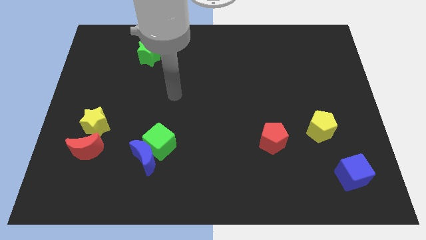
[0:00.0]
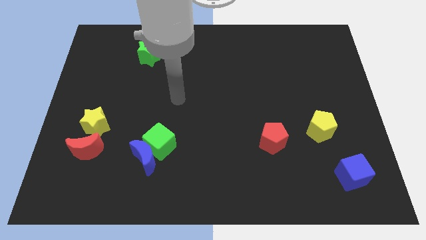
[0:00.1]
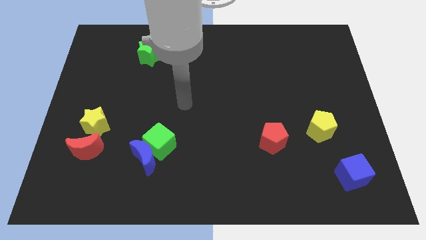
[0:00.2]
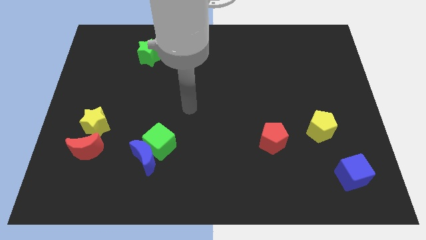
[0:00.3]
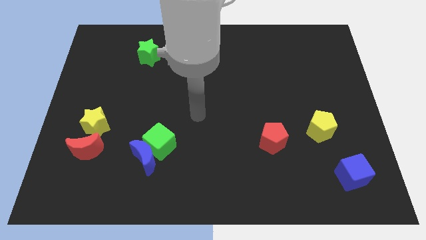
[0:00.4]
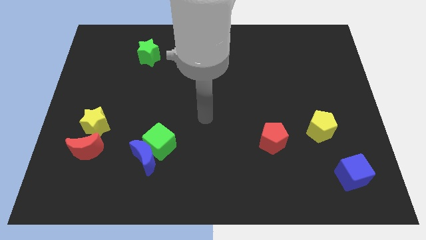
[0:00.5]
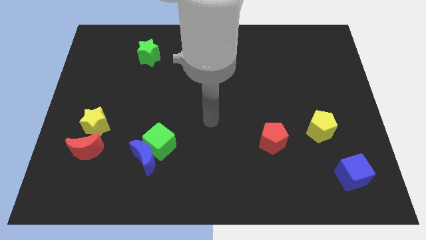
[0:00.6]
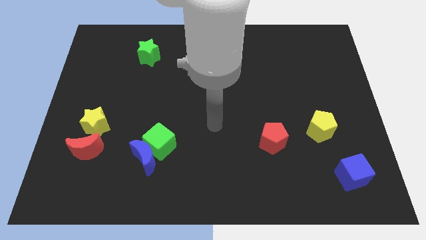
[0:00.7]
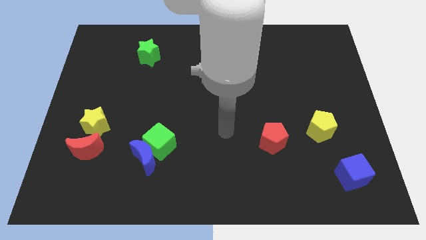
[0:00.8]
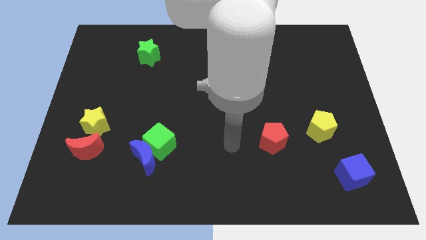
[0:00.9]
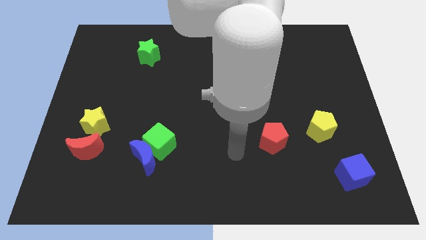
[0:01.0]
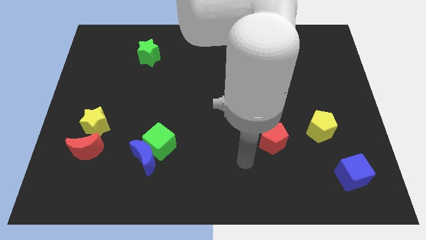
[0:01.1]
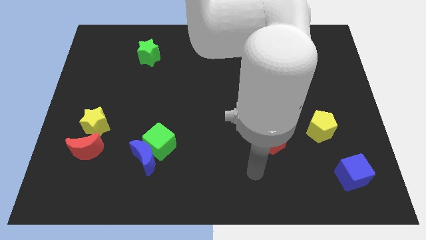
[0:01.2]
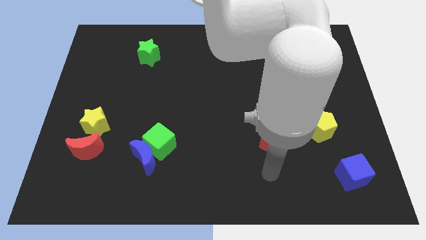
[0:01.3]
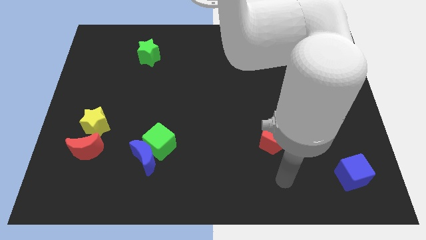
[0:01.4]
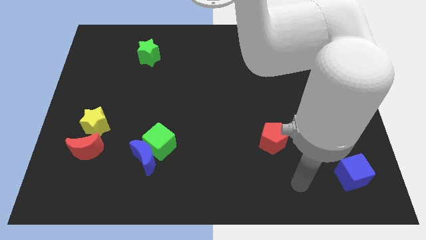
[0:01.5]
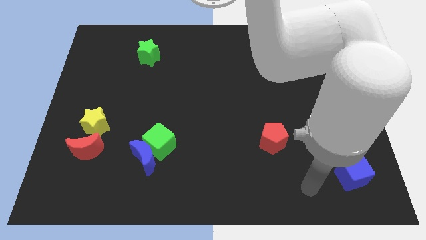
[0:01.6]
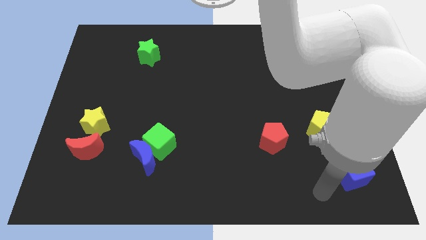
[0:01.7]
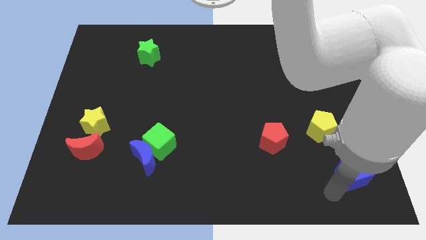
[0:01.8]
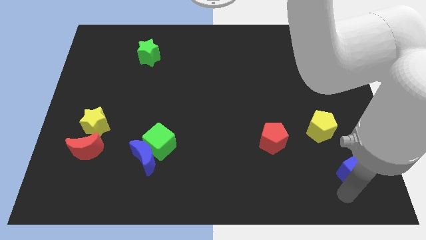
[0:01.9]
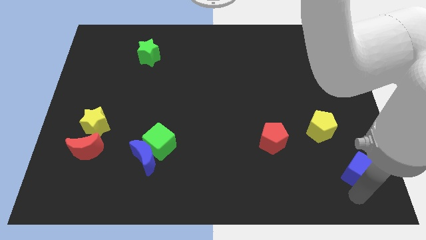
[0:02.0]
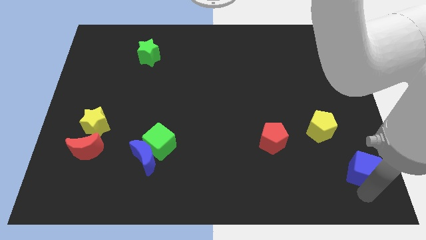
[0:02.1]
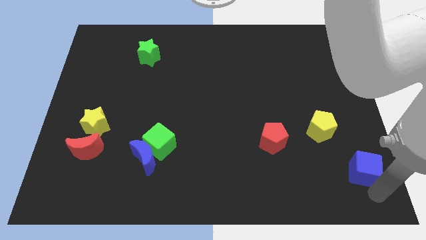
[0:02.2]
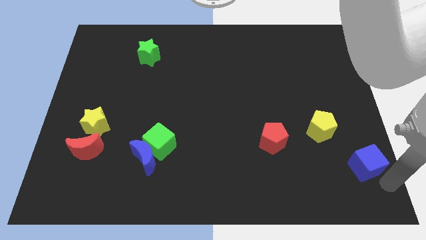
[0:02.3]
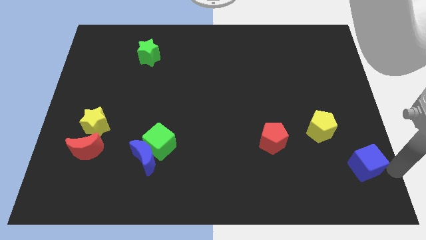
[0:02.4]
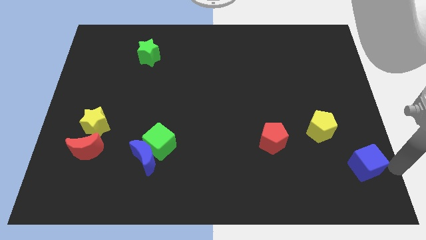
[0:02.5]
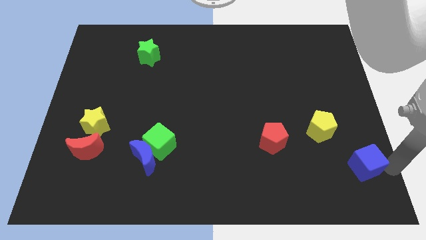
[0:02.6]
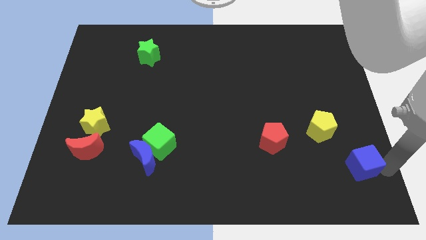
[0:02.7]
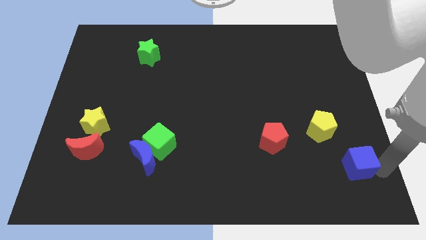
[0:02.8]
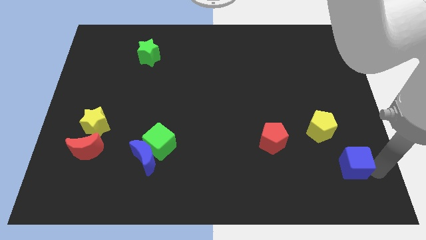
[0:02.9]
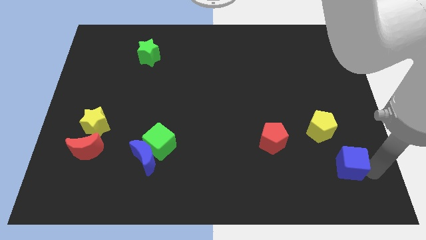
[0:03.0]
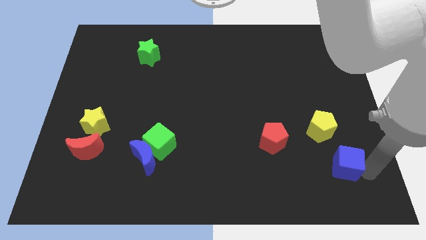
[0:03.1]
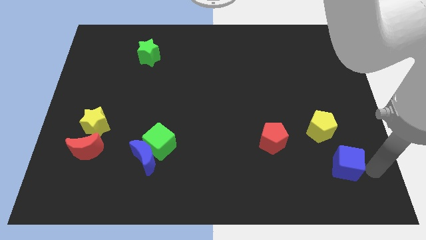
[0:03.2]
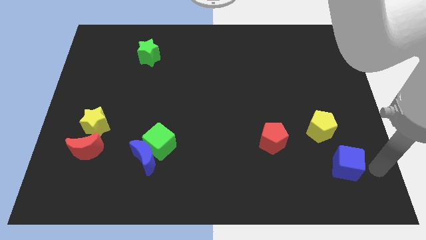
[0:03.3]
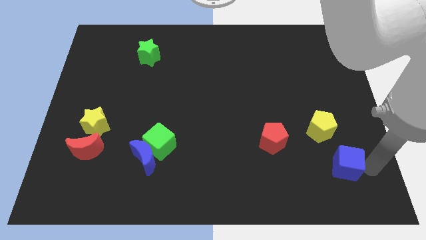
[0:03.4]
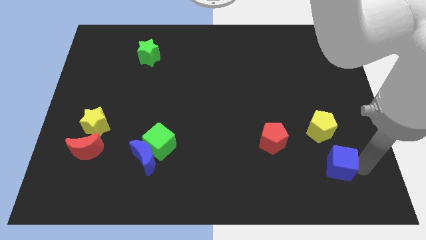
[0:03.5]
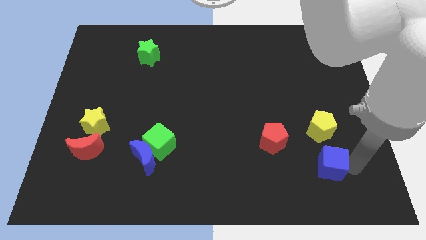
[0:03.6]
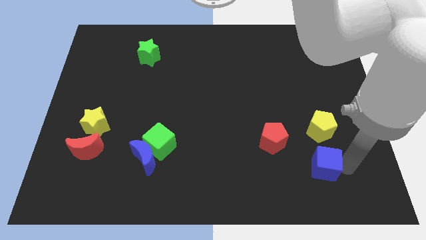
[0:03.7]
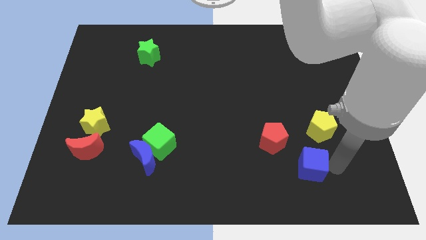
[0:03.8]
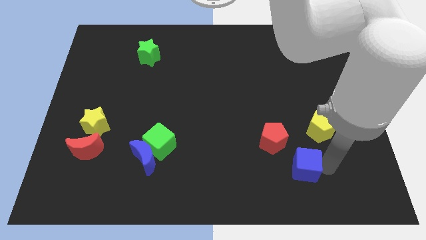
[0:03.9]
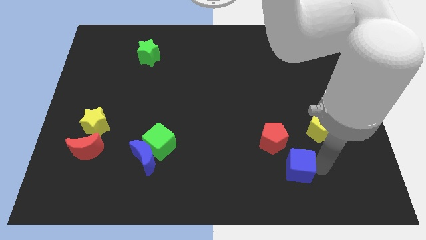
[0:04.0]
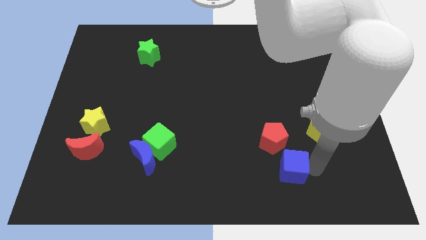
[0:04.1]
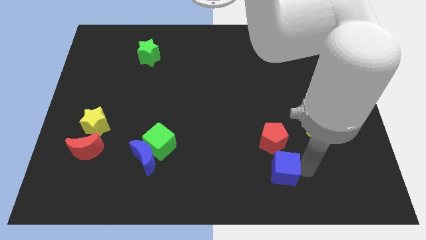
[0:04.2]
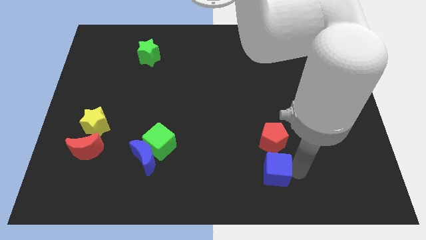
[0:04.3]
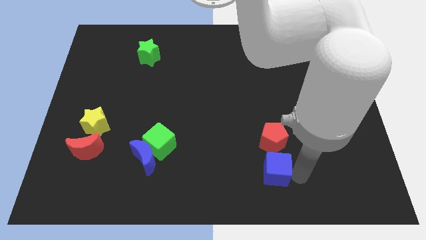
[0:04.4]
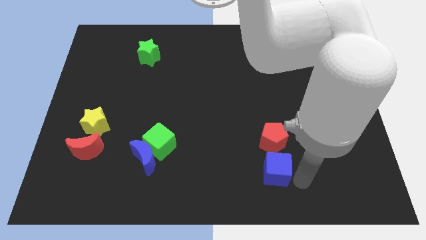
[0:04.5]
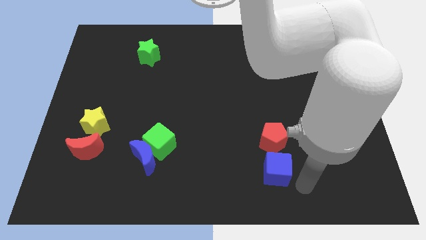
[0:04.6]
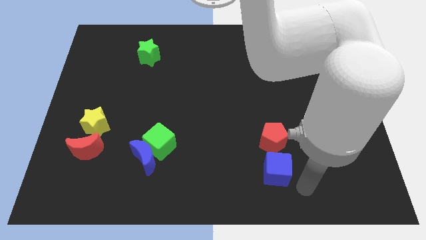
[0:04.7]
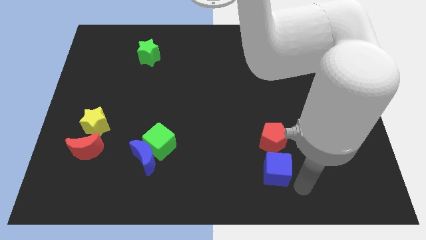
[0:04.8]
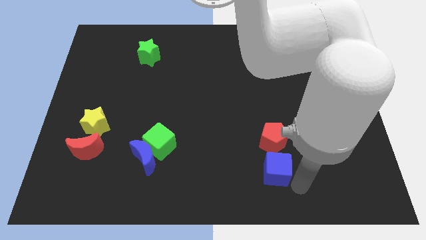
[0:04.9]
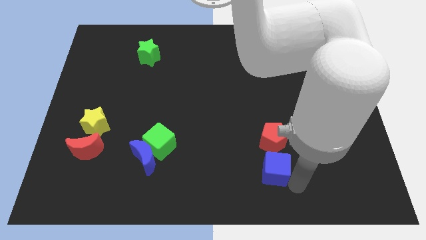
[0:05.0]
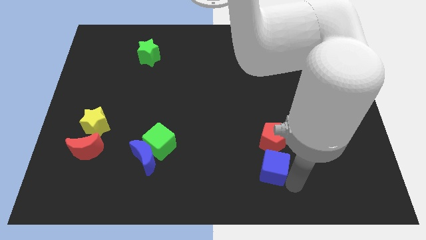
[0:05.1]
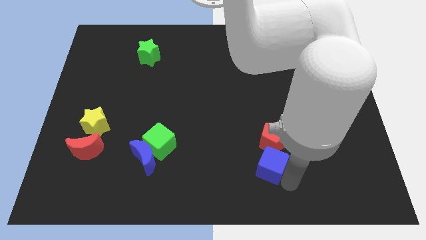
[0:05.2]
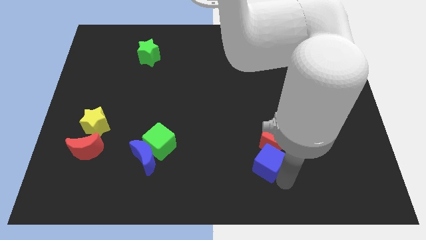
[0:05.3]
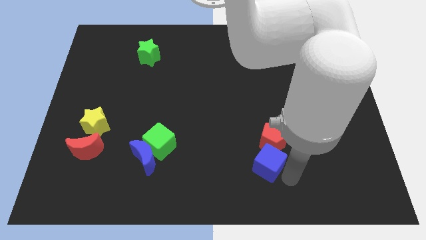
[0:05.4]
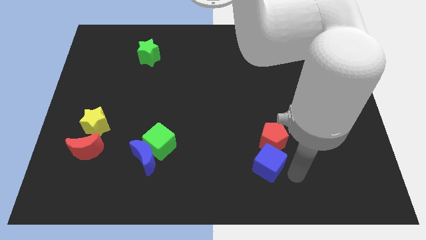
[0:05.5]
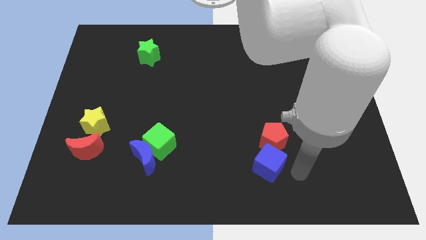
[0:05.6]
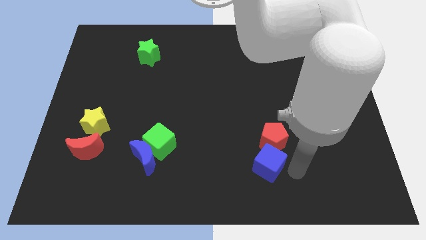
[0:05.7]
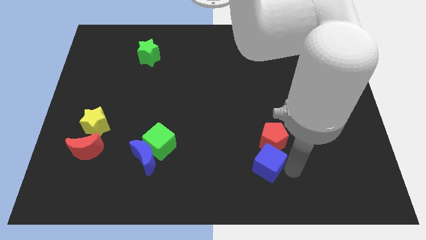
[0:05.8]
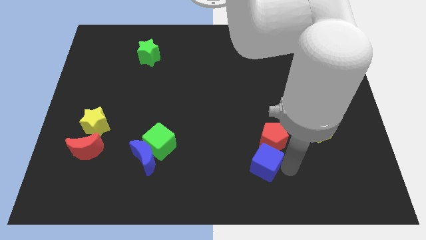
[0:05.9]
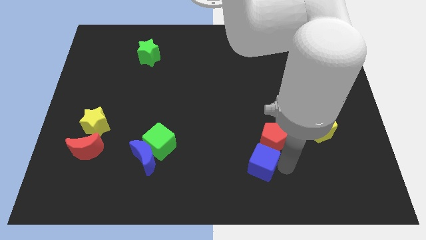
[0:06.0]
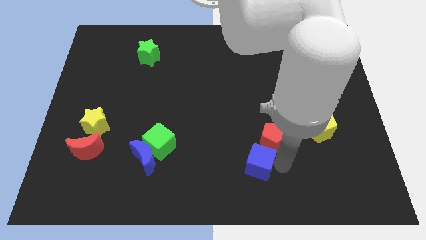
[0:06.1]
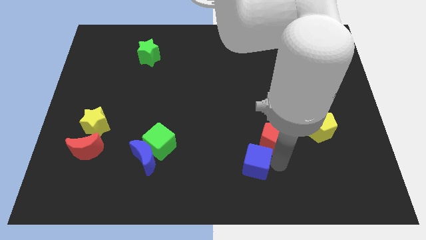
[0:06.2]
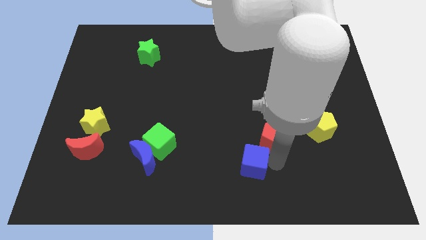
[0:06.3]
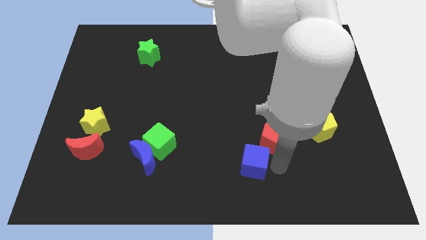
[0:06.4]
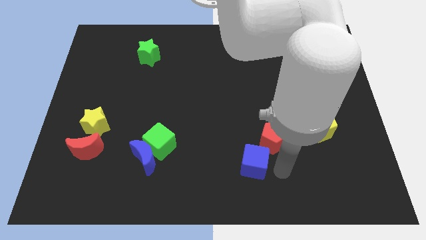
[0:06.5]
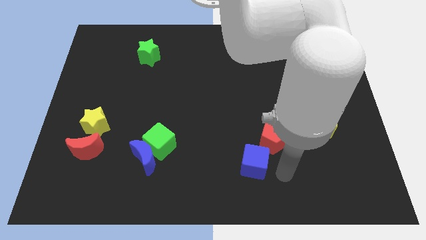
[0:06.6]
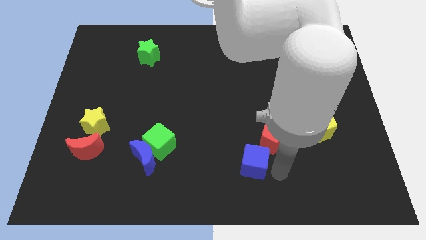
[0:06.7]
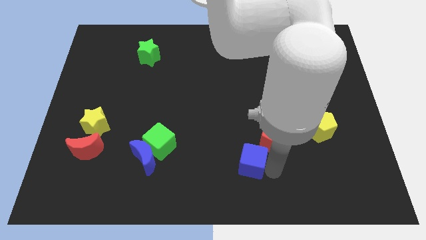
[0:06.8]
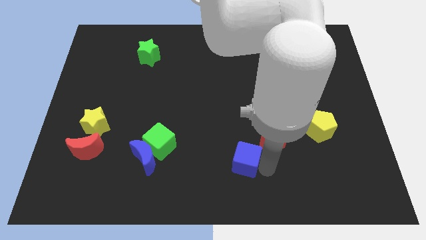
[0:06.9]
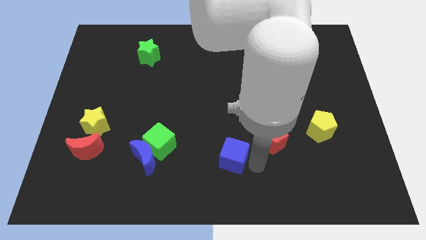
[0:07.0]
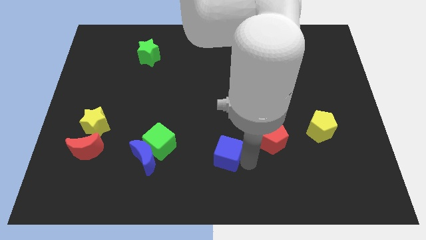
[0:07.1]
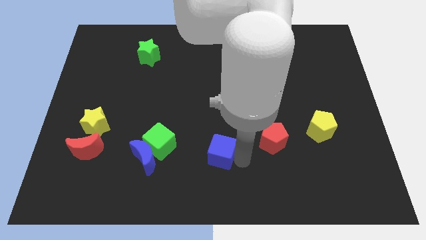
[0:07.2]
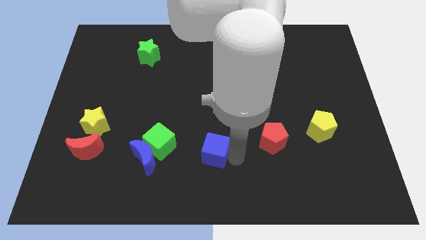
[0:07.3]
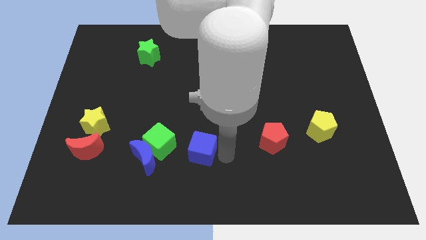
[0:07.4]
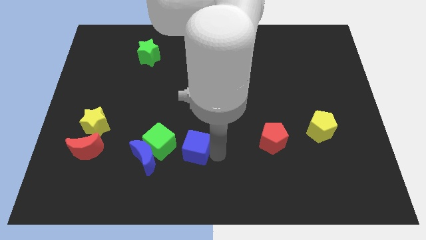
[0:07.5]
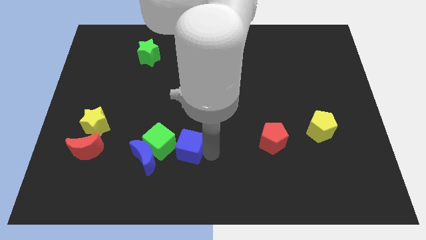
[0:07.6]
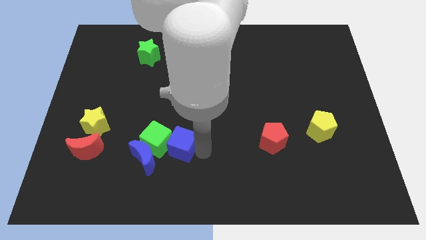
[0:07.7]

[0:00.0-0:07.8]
slide the blue cube to the green cube
